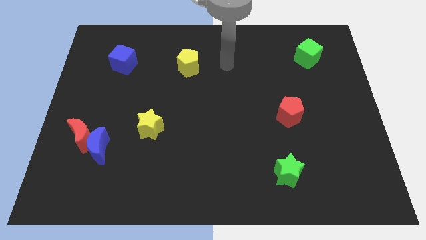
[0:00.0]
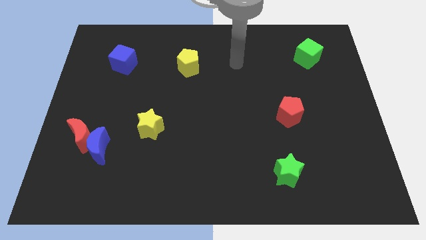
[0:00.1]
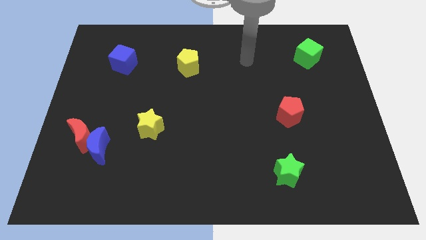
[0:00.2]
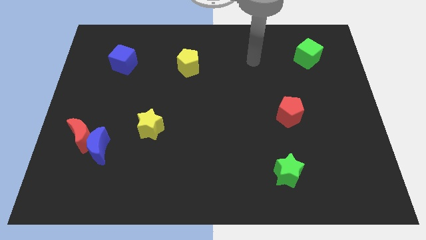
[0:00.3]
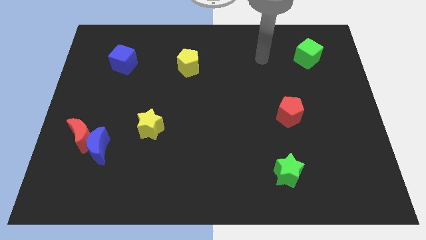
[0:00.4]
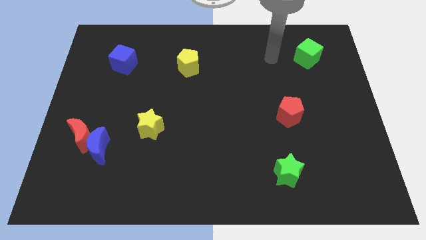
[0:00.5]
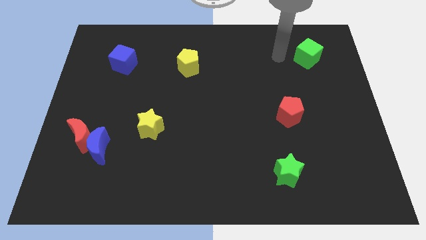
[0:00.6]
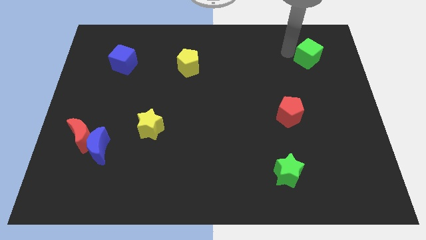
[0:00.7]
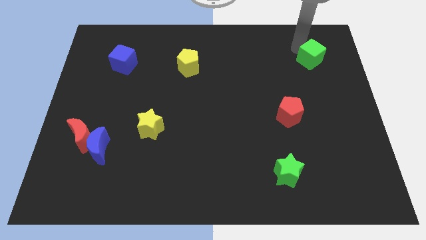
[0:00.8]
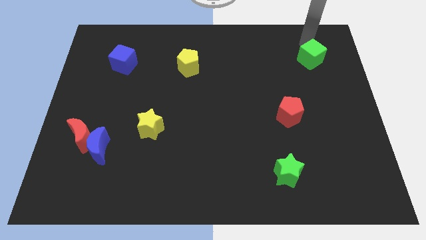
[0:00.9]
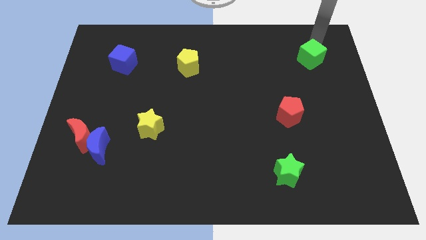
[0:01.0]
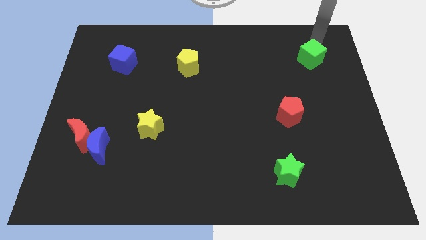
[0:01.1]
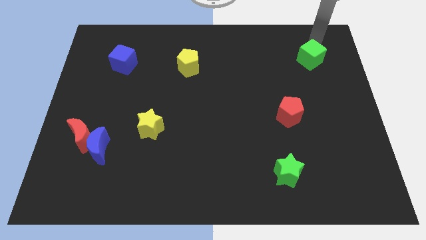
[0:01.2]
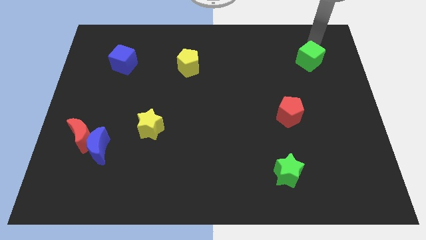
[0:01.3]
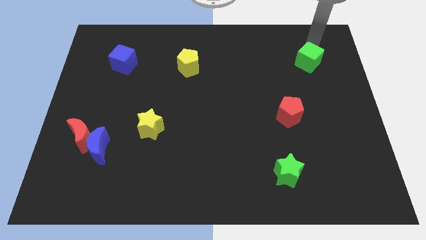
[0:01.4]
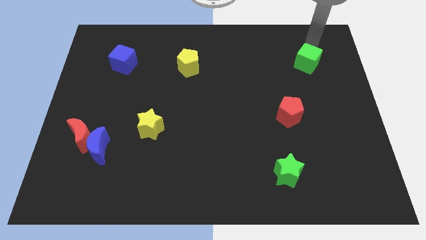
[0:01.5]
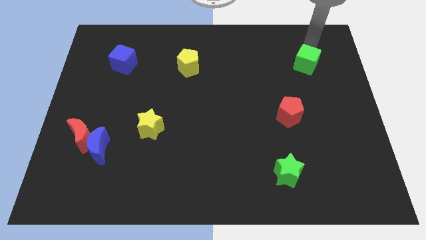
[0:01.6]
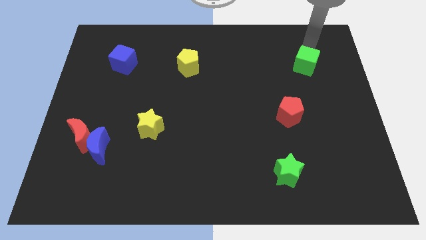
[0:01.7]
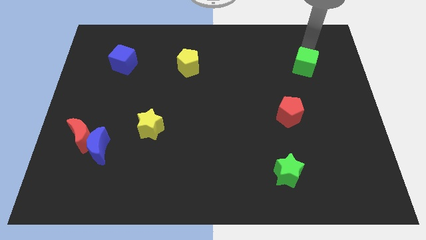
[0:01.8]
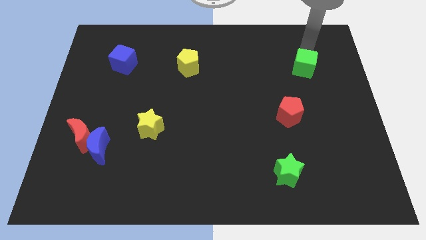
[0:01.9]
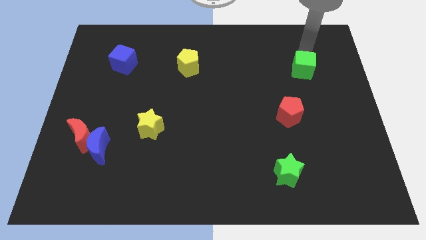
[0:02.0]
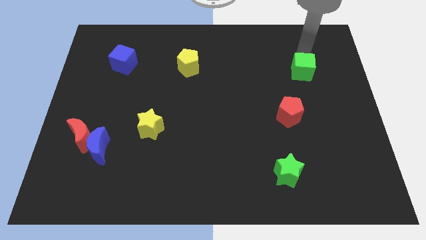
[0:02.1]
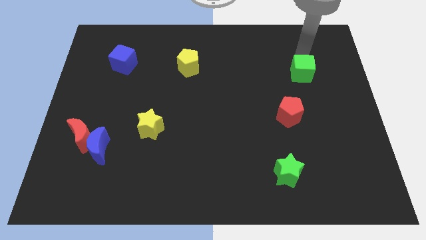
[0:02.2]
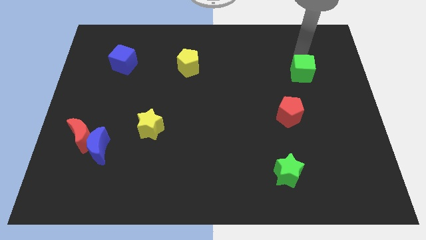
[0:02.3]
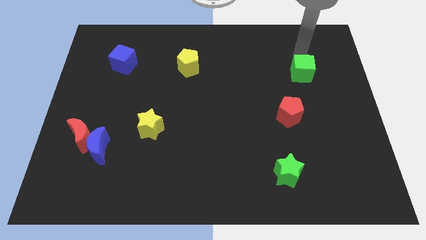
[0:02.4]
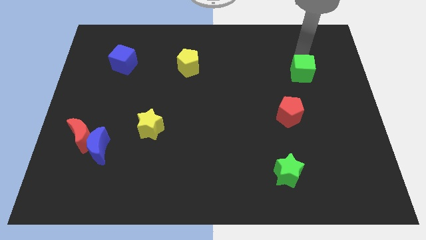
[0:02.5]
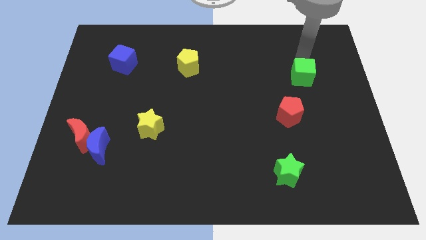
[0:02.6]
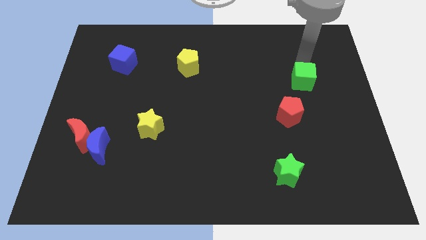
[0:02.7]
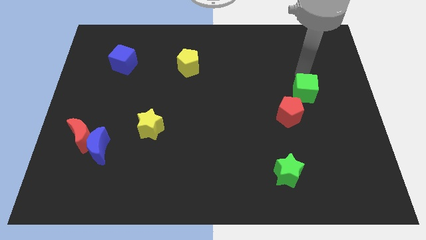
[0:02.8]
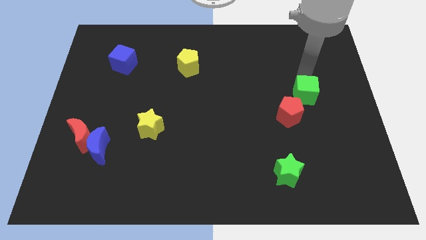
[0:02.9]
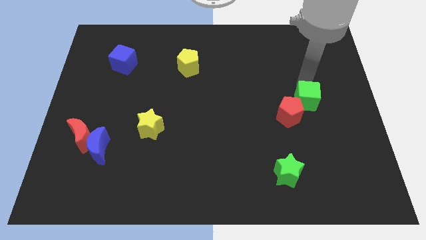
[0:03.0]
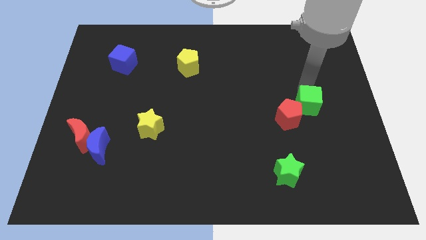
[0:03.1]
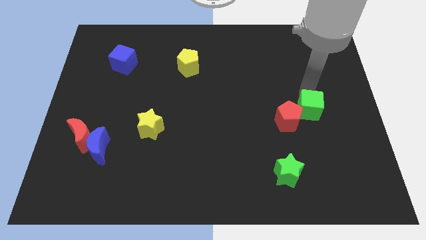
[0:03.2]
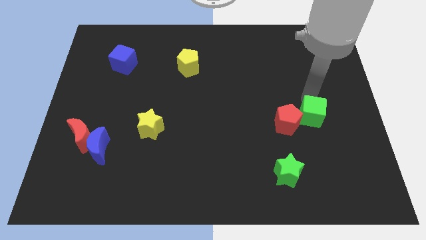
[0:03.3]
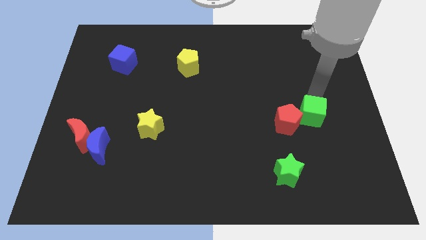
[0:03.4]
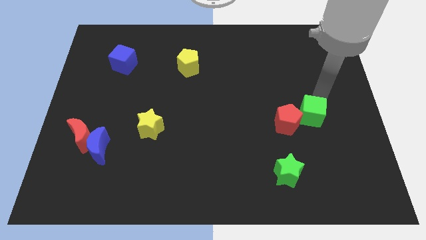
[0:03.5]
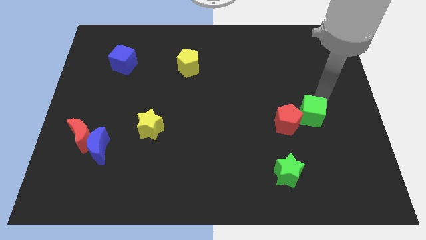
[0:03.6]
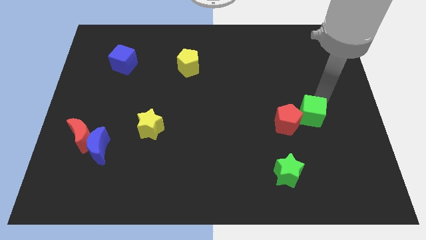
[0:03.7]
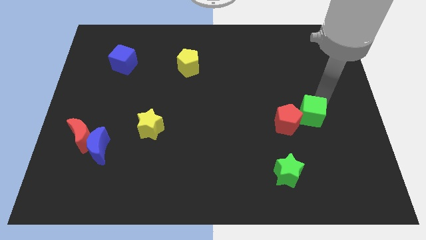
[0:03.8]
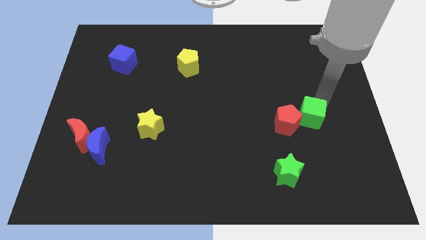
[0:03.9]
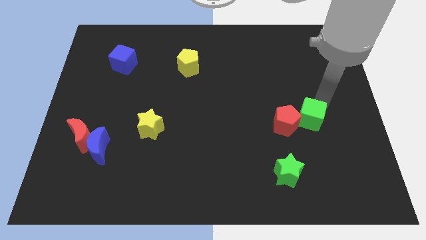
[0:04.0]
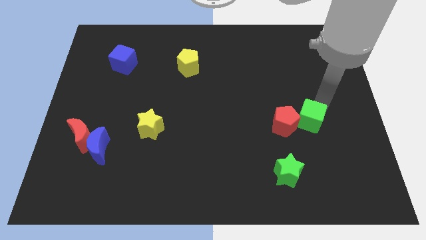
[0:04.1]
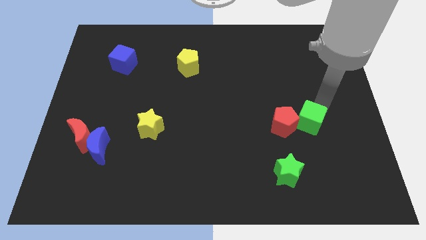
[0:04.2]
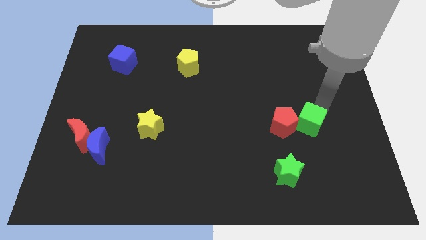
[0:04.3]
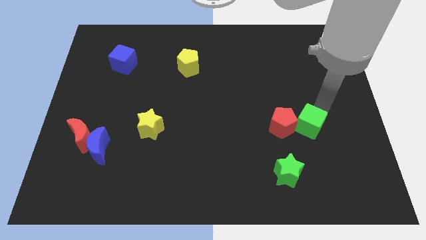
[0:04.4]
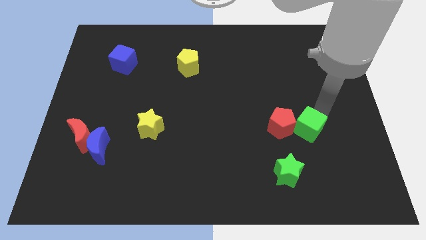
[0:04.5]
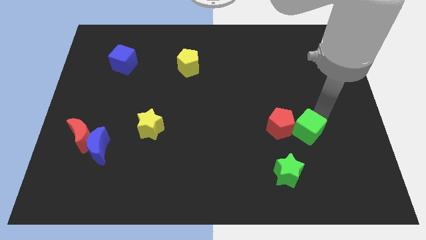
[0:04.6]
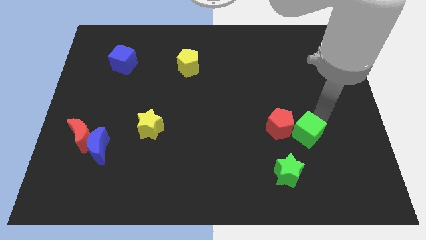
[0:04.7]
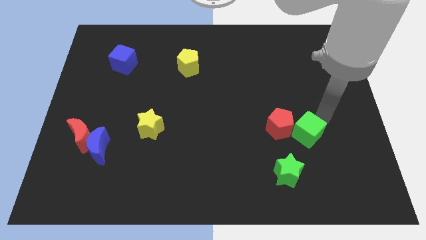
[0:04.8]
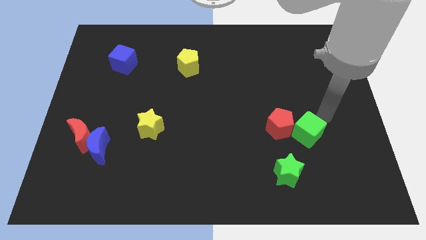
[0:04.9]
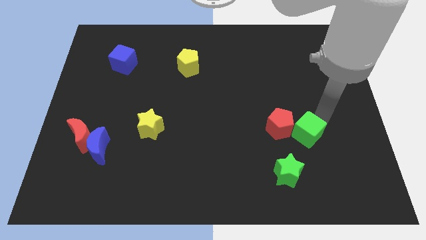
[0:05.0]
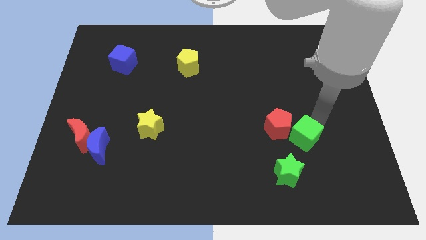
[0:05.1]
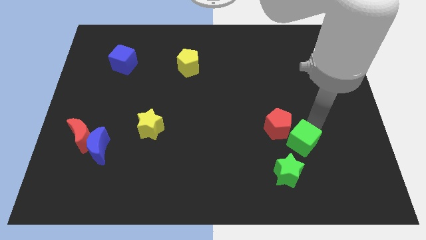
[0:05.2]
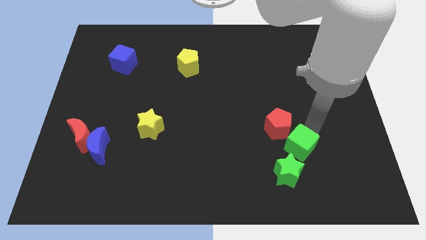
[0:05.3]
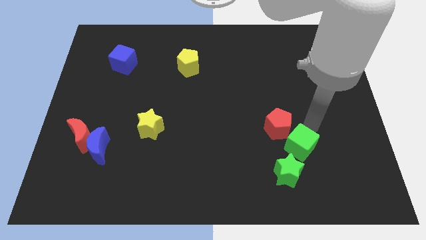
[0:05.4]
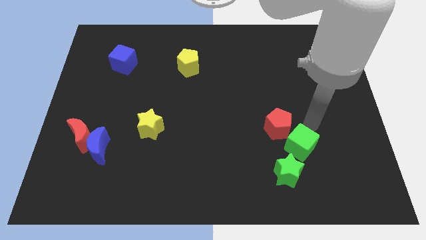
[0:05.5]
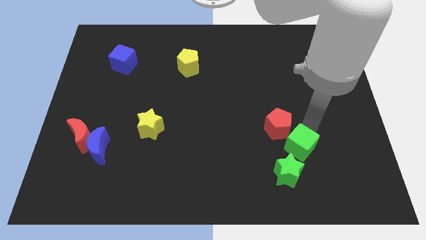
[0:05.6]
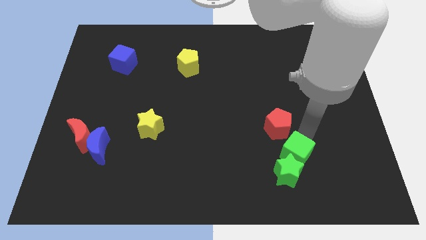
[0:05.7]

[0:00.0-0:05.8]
put the green cube to the green star

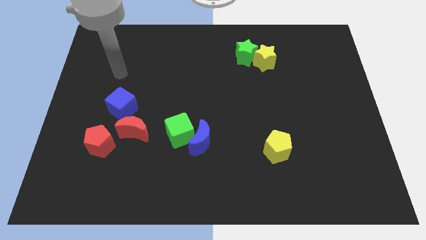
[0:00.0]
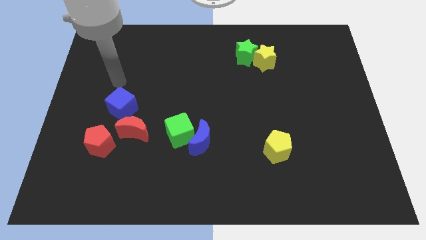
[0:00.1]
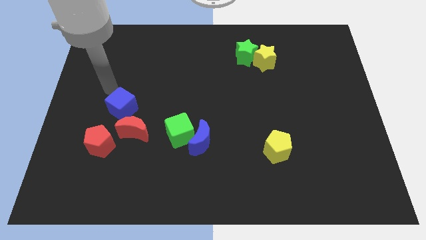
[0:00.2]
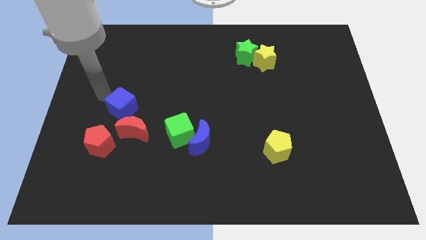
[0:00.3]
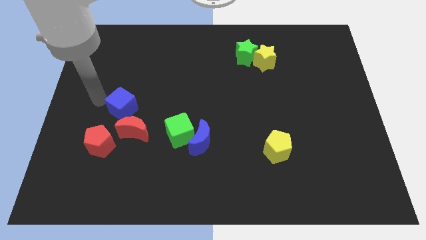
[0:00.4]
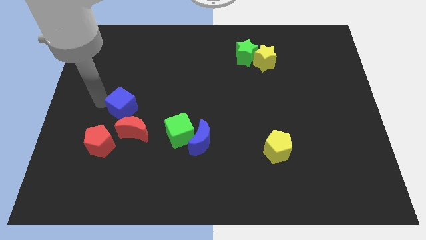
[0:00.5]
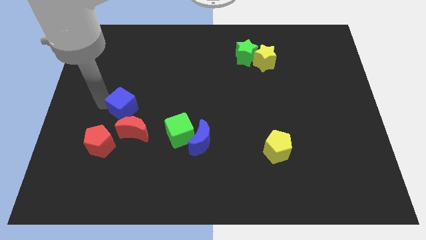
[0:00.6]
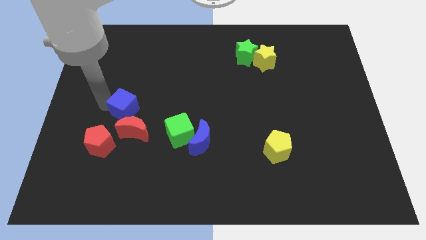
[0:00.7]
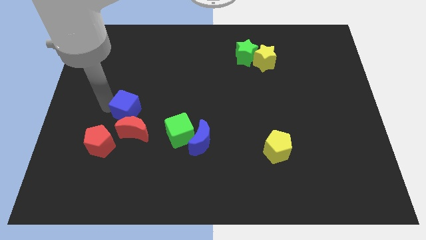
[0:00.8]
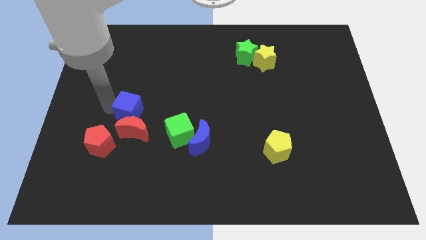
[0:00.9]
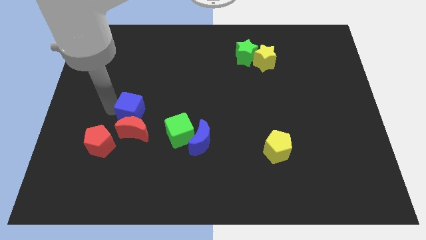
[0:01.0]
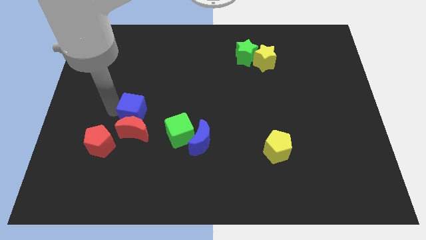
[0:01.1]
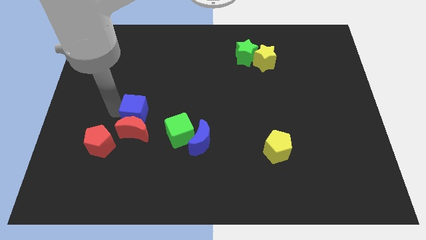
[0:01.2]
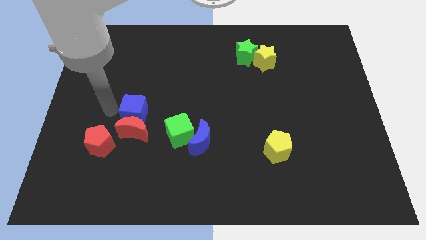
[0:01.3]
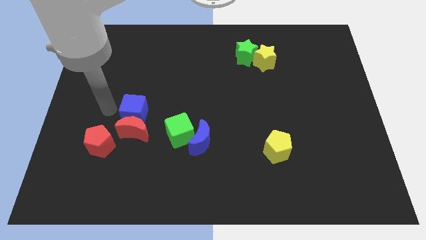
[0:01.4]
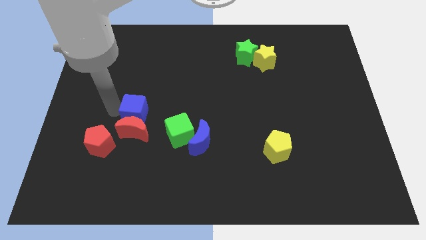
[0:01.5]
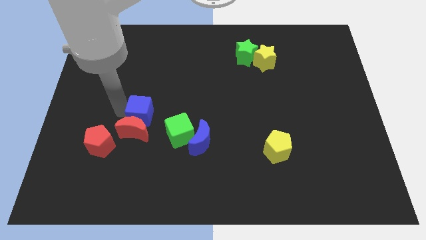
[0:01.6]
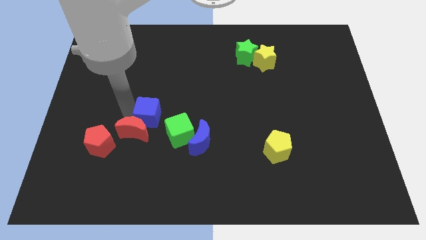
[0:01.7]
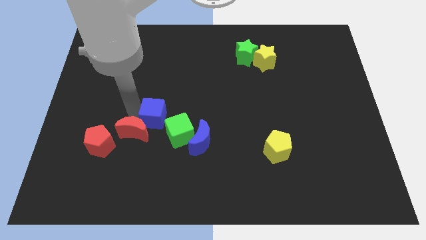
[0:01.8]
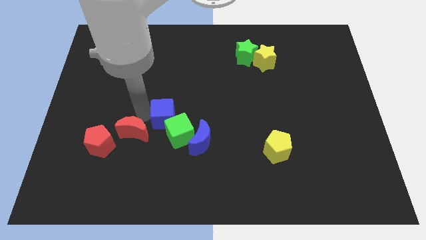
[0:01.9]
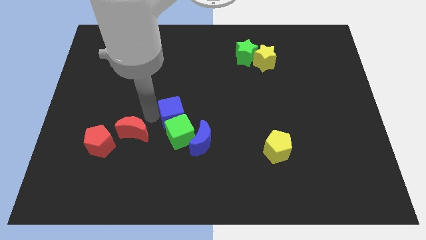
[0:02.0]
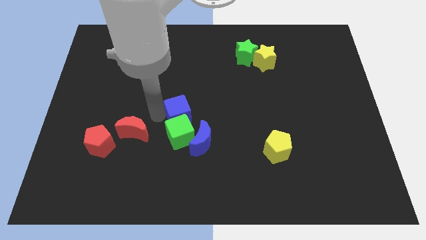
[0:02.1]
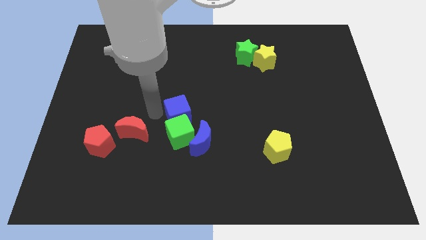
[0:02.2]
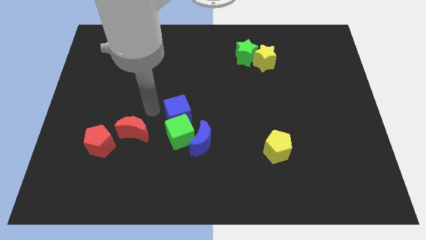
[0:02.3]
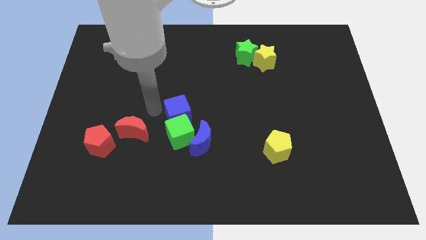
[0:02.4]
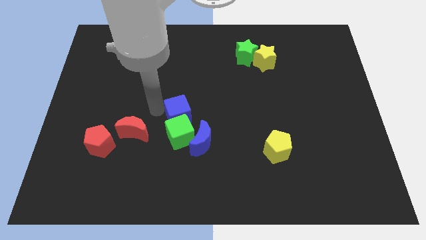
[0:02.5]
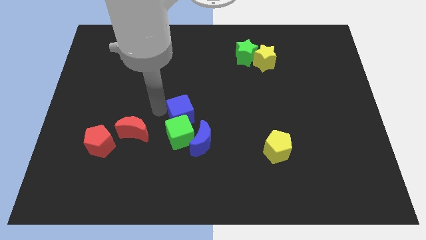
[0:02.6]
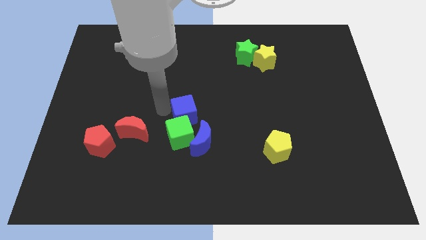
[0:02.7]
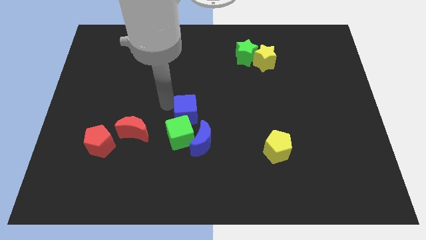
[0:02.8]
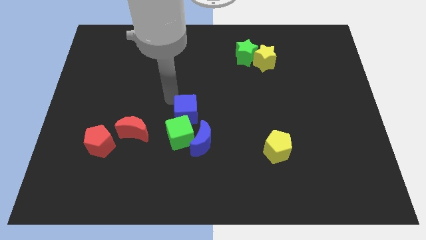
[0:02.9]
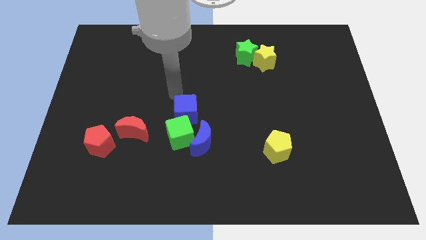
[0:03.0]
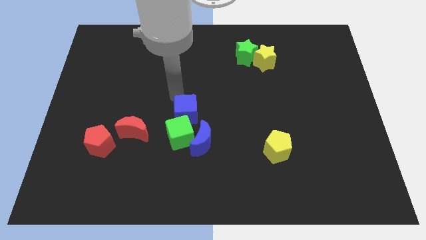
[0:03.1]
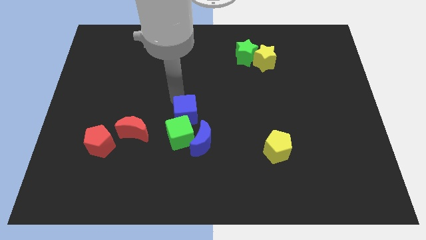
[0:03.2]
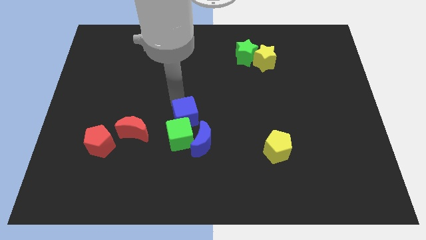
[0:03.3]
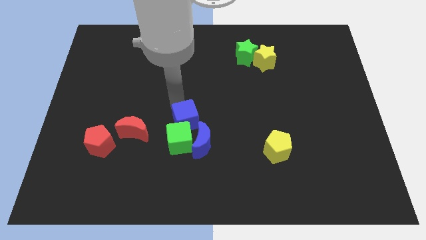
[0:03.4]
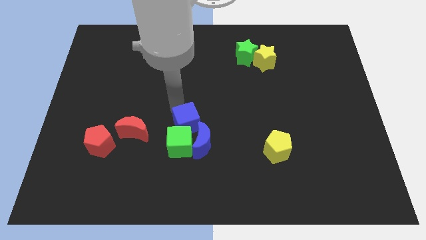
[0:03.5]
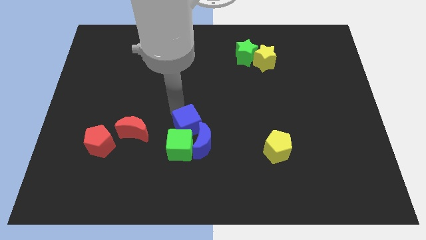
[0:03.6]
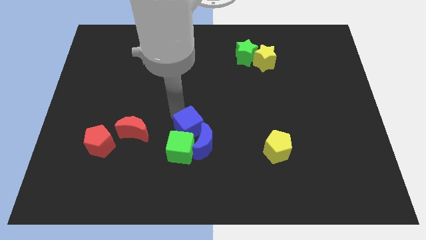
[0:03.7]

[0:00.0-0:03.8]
push the blue cube close to the blue moon
